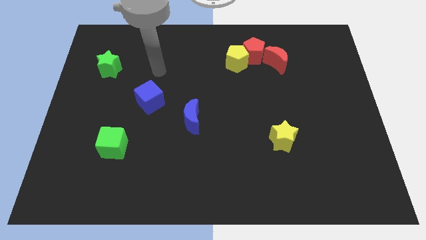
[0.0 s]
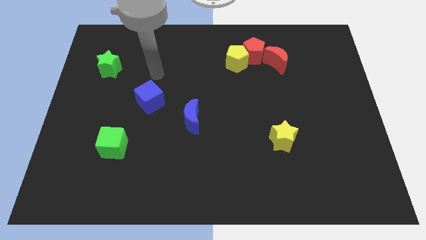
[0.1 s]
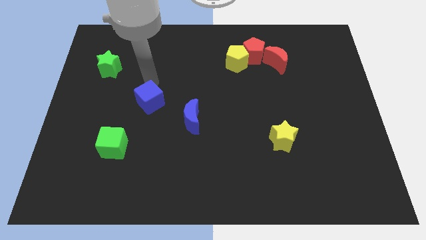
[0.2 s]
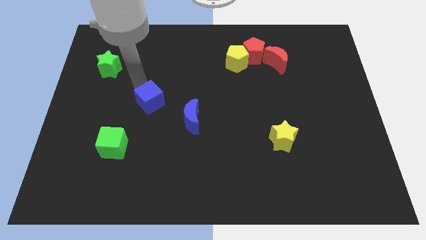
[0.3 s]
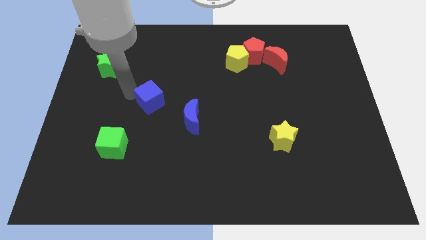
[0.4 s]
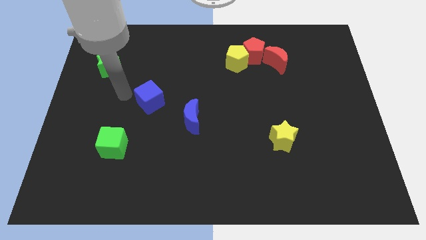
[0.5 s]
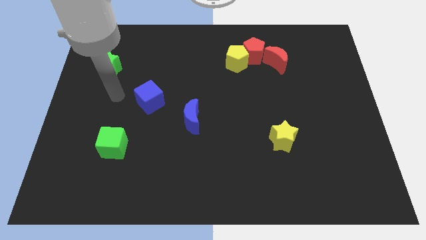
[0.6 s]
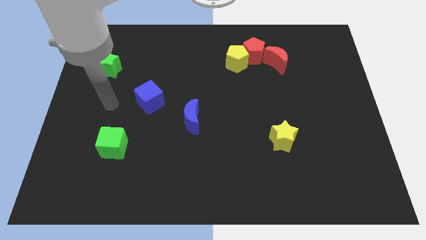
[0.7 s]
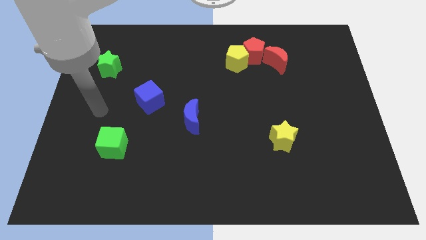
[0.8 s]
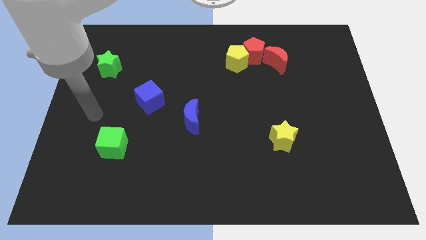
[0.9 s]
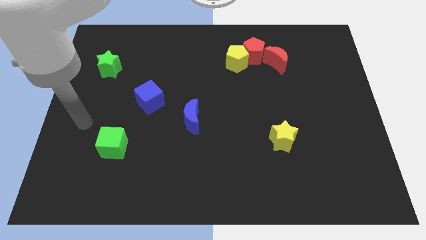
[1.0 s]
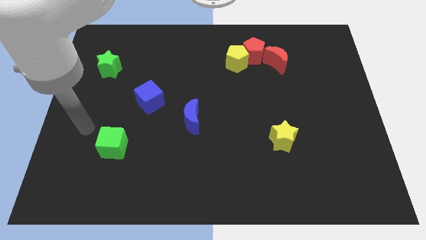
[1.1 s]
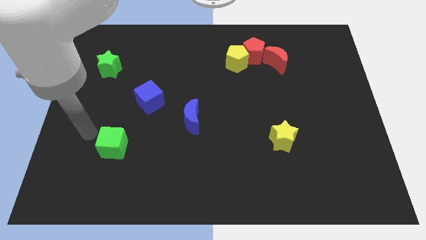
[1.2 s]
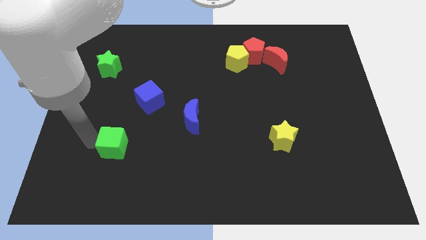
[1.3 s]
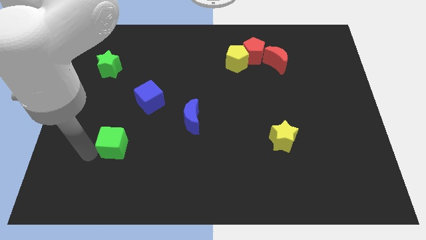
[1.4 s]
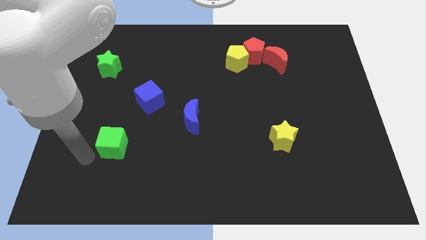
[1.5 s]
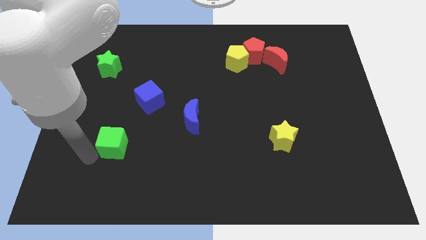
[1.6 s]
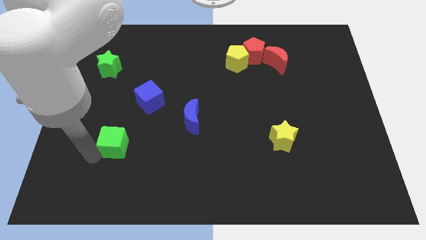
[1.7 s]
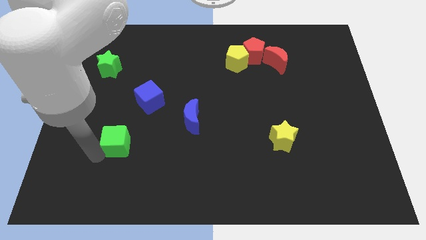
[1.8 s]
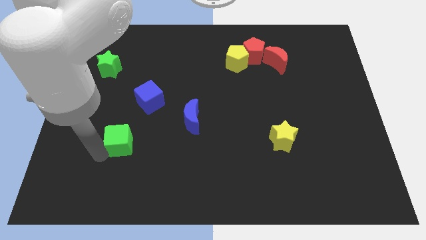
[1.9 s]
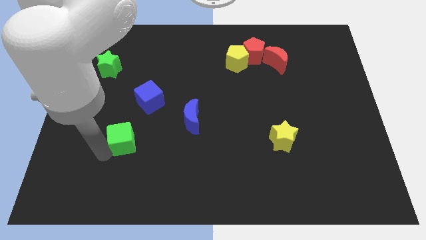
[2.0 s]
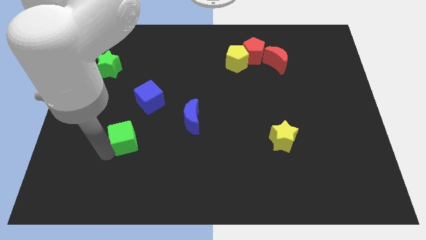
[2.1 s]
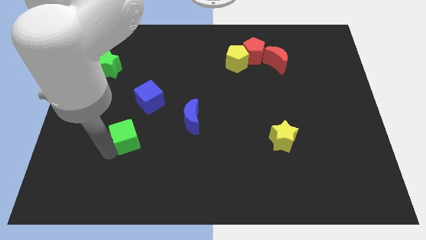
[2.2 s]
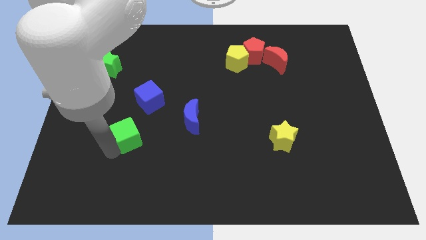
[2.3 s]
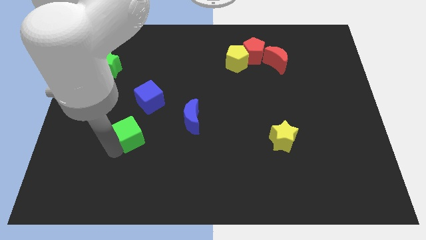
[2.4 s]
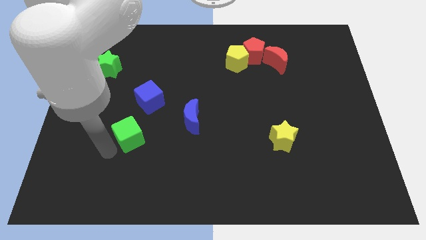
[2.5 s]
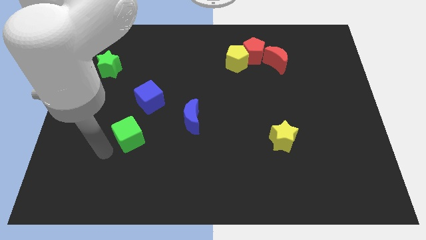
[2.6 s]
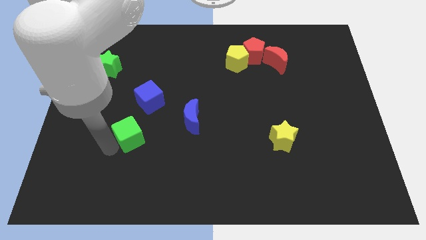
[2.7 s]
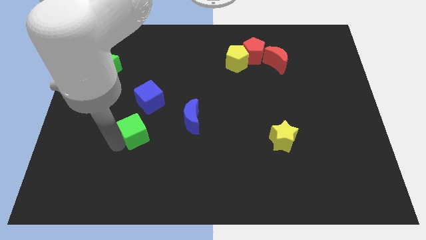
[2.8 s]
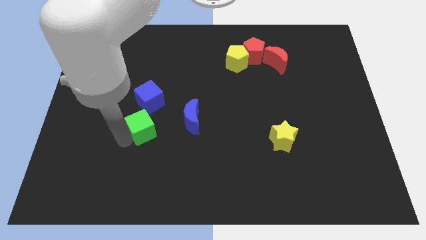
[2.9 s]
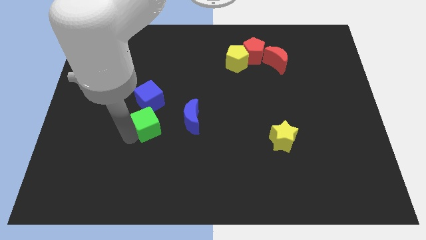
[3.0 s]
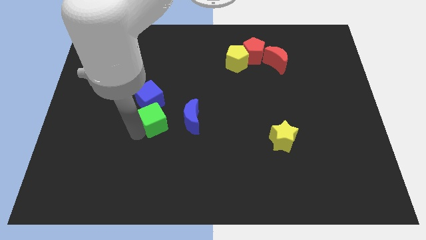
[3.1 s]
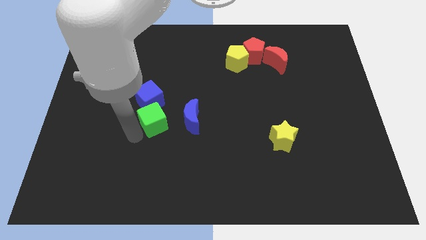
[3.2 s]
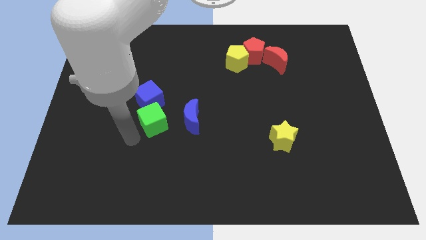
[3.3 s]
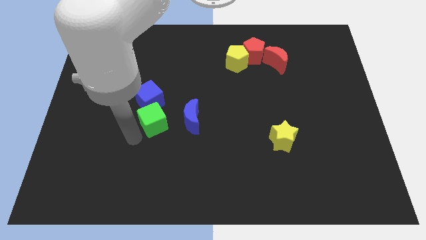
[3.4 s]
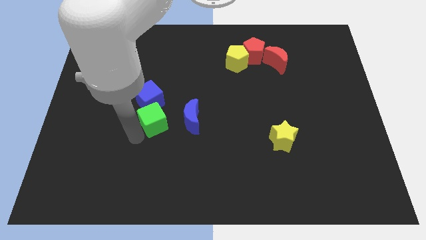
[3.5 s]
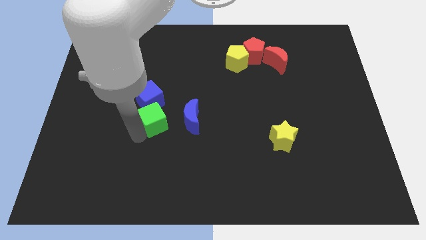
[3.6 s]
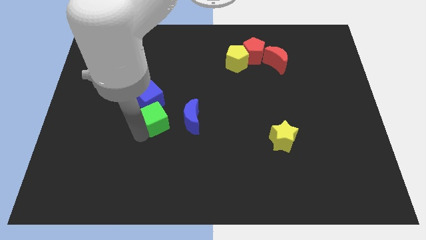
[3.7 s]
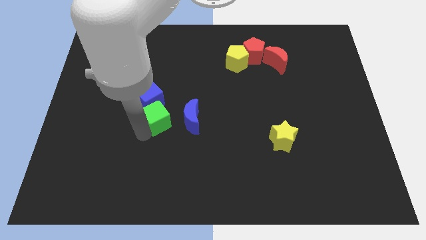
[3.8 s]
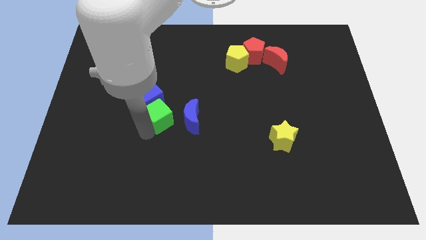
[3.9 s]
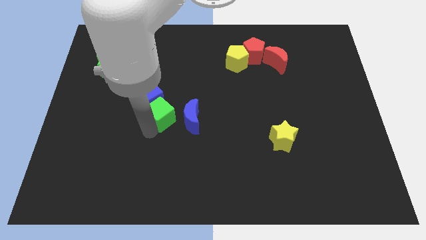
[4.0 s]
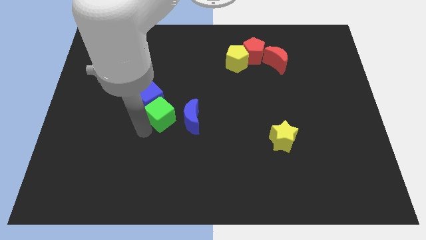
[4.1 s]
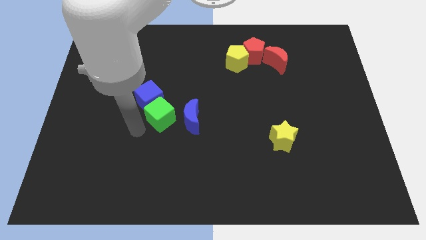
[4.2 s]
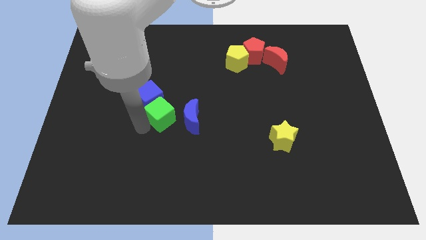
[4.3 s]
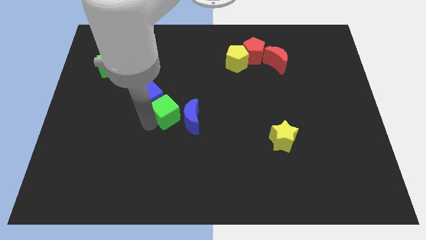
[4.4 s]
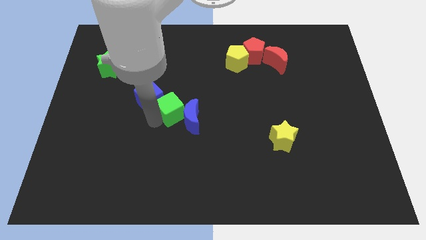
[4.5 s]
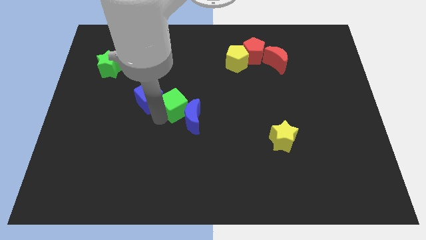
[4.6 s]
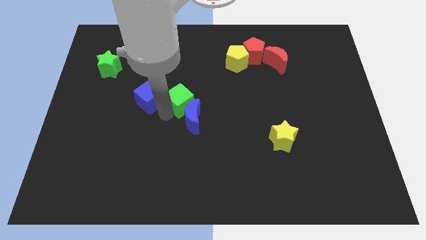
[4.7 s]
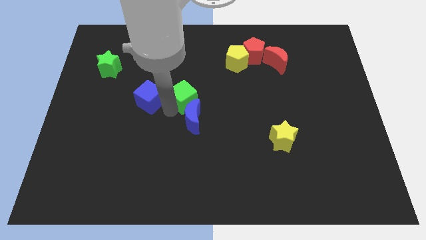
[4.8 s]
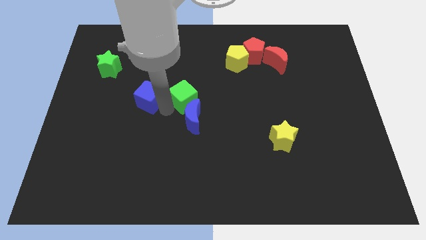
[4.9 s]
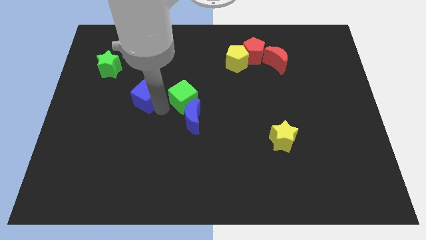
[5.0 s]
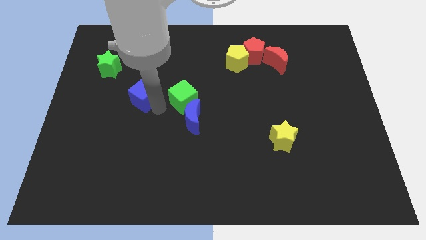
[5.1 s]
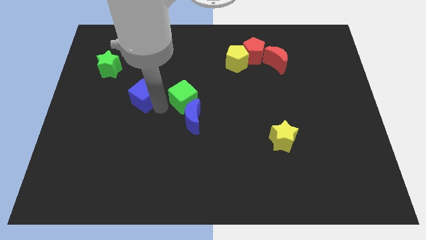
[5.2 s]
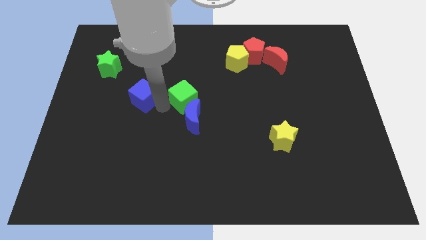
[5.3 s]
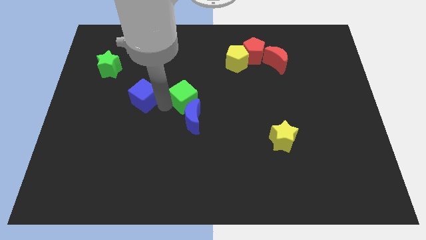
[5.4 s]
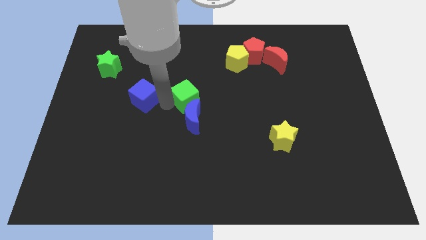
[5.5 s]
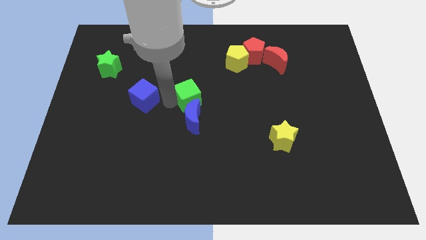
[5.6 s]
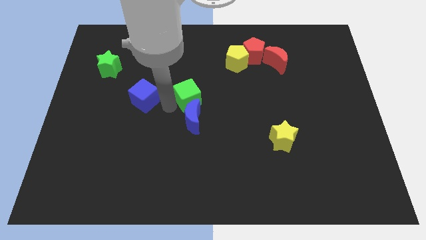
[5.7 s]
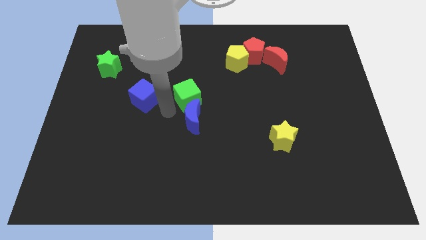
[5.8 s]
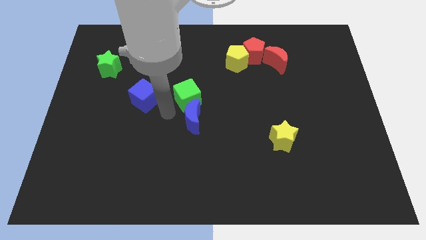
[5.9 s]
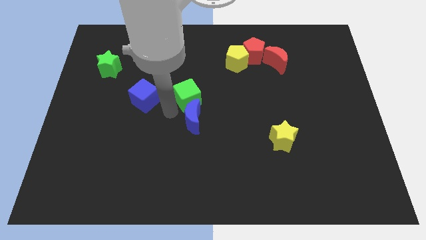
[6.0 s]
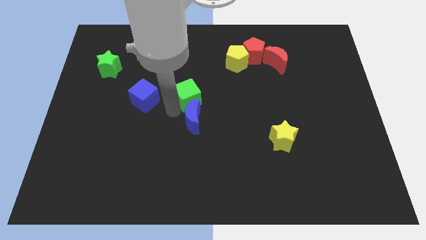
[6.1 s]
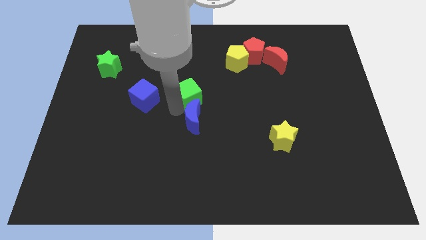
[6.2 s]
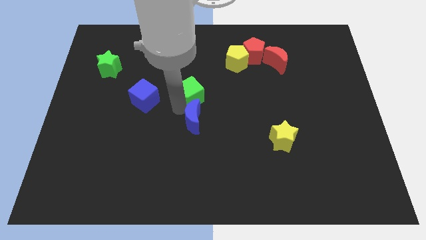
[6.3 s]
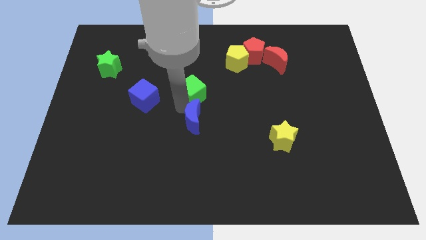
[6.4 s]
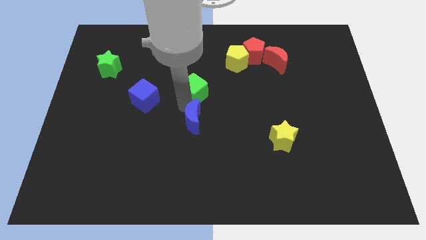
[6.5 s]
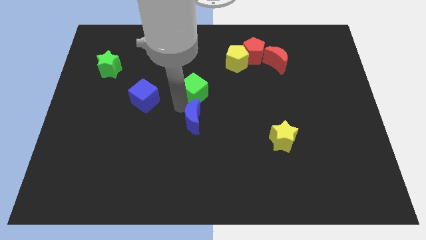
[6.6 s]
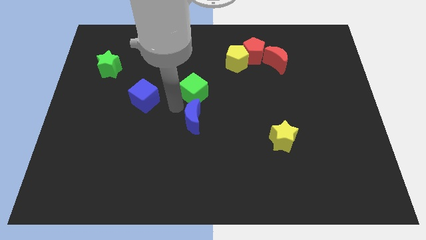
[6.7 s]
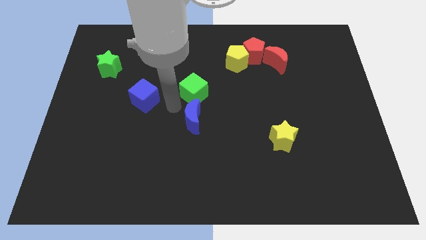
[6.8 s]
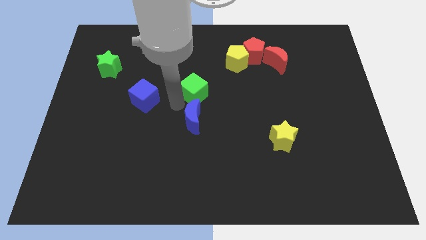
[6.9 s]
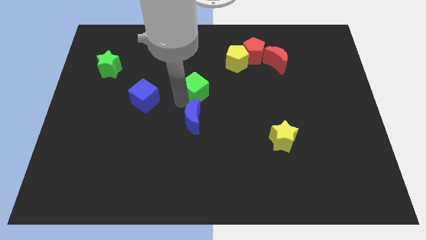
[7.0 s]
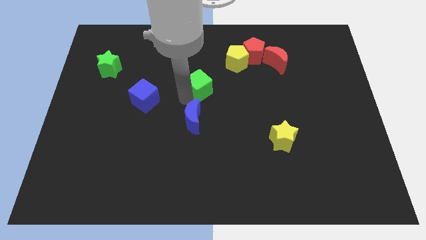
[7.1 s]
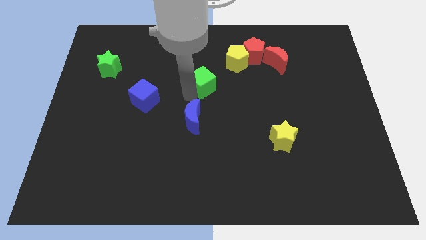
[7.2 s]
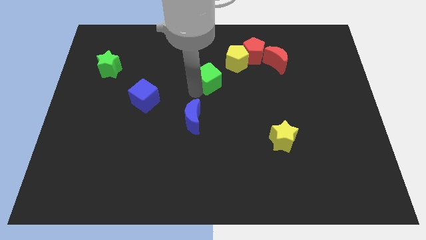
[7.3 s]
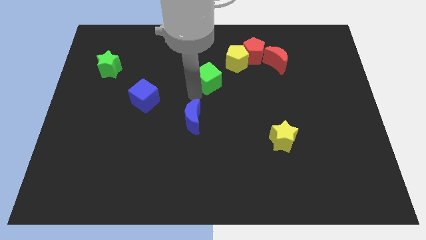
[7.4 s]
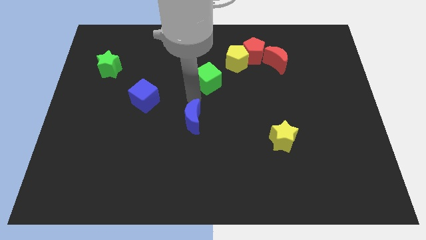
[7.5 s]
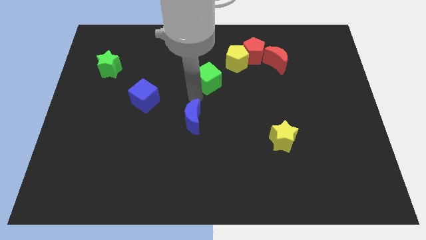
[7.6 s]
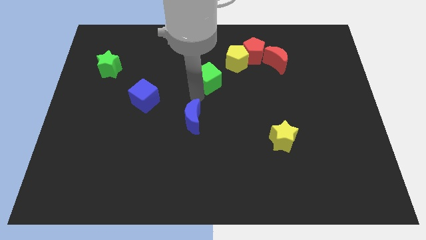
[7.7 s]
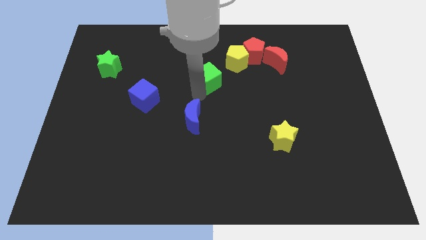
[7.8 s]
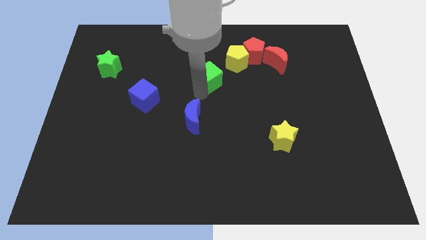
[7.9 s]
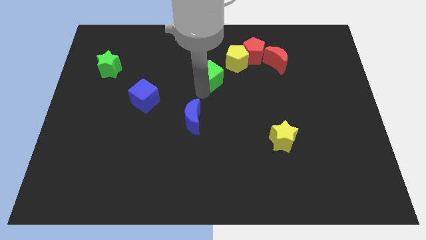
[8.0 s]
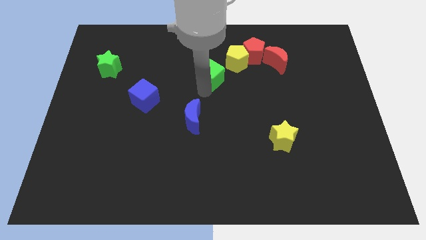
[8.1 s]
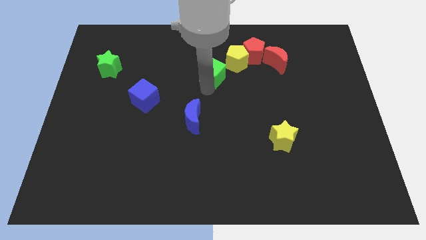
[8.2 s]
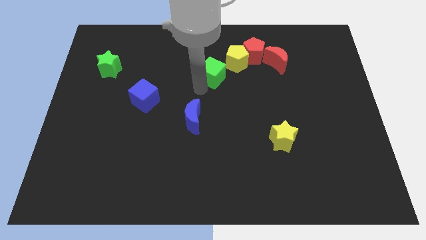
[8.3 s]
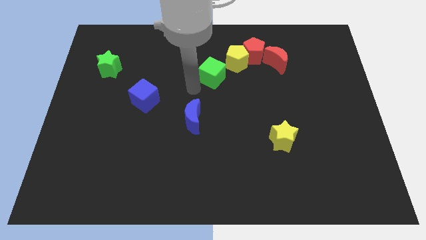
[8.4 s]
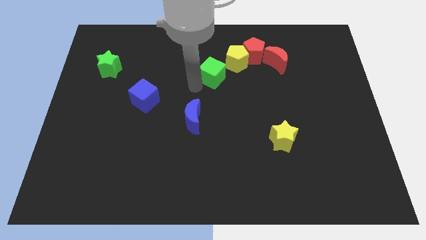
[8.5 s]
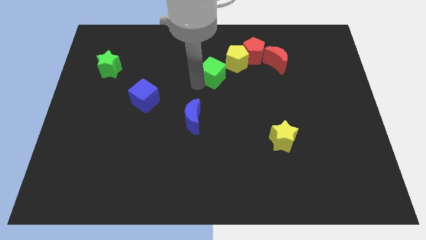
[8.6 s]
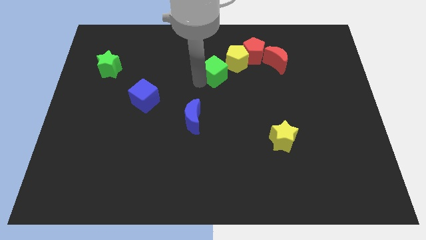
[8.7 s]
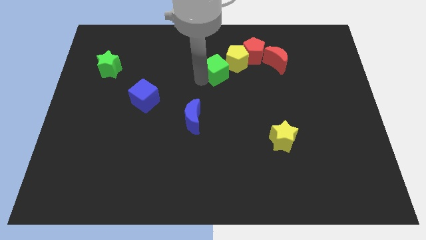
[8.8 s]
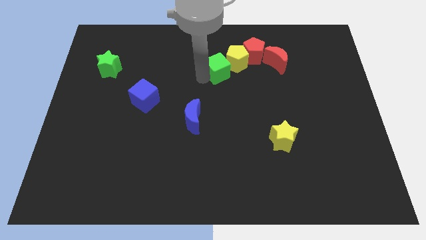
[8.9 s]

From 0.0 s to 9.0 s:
push the green cube close to the yellow pentagon
